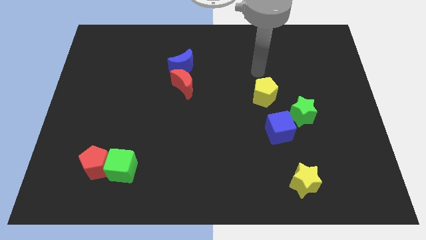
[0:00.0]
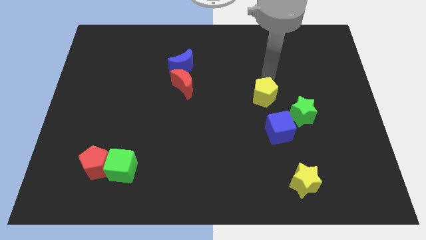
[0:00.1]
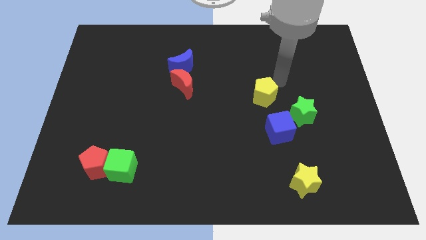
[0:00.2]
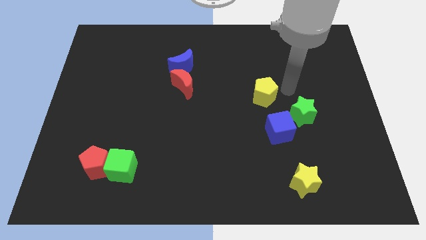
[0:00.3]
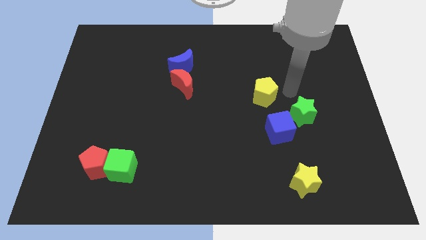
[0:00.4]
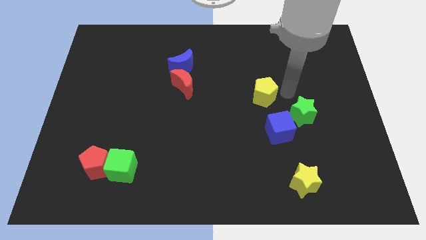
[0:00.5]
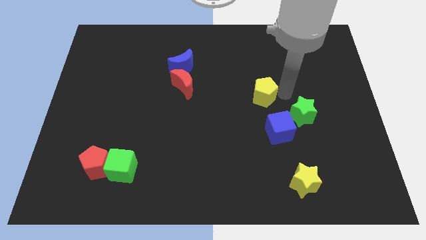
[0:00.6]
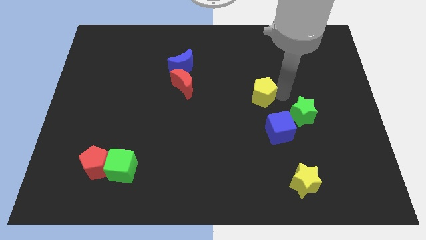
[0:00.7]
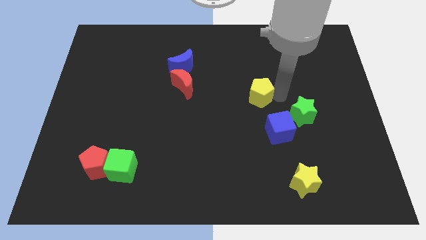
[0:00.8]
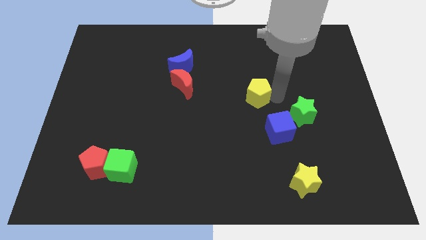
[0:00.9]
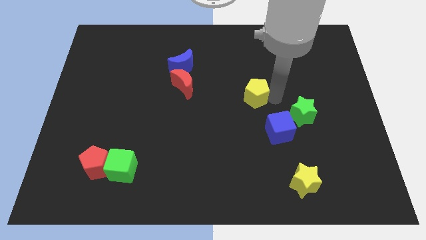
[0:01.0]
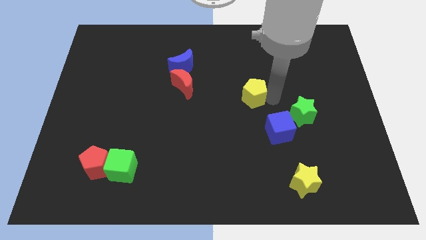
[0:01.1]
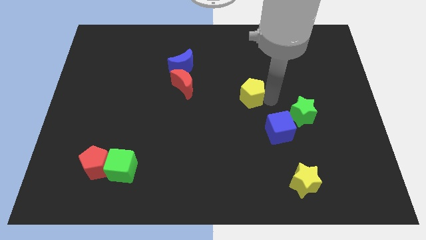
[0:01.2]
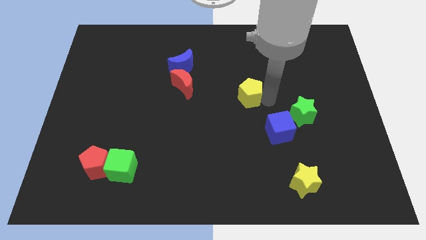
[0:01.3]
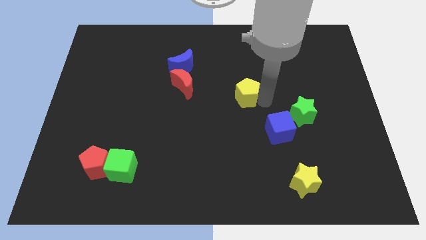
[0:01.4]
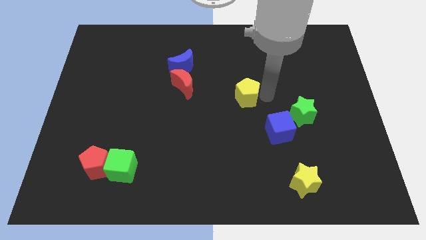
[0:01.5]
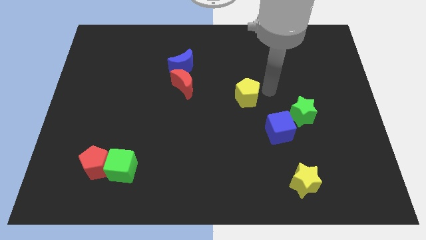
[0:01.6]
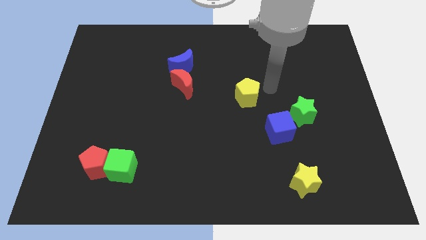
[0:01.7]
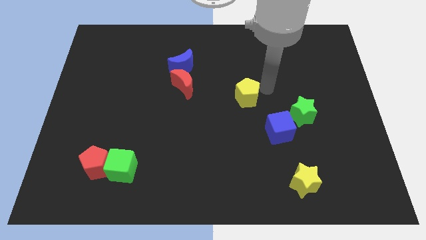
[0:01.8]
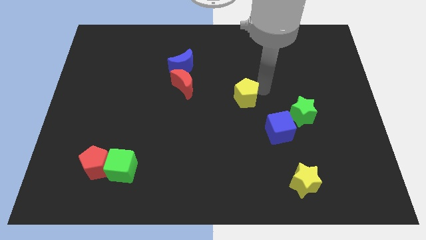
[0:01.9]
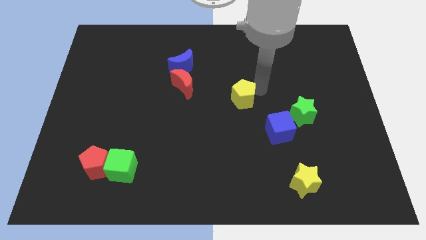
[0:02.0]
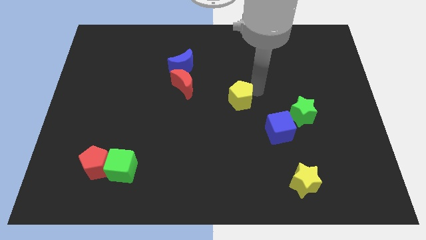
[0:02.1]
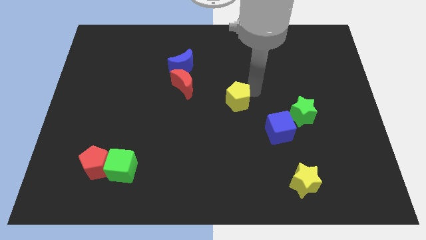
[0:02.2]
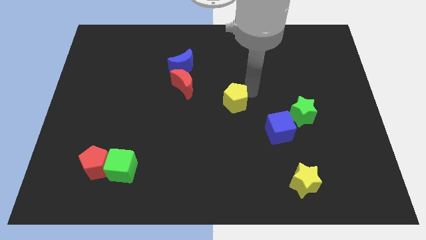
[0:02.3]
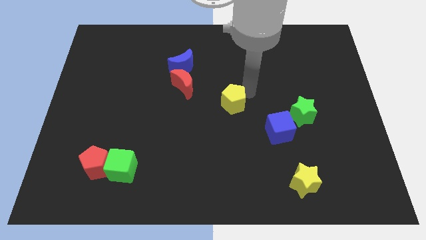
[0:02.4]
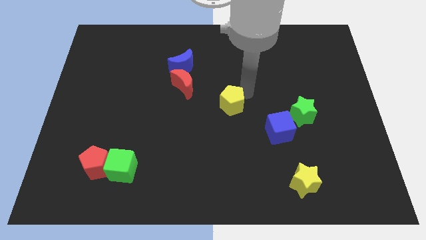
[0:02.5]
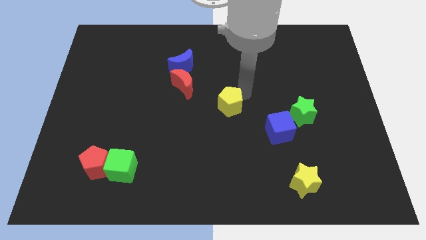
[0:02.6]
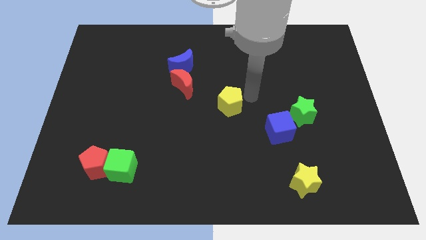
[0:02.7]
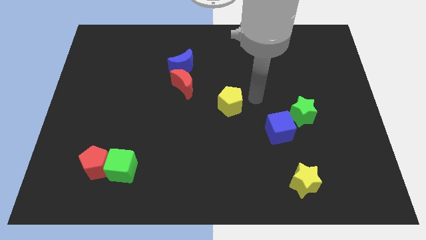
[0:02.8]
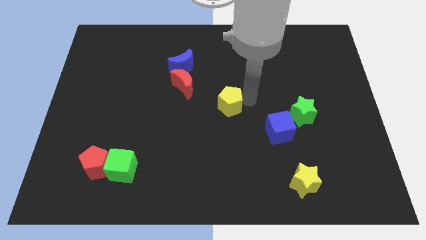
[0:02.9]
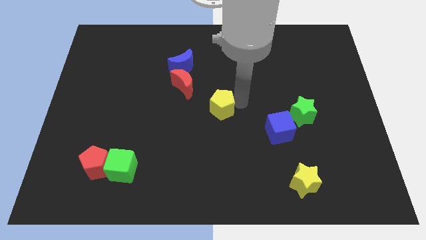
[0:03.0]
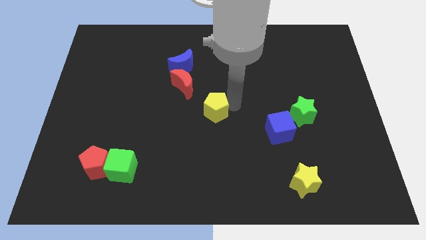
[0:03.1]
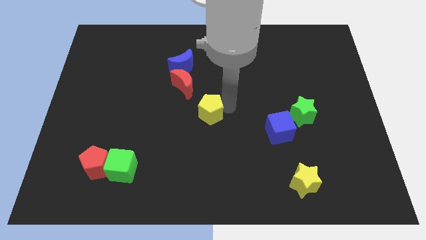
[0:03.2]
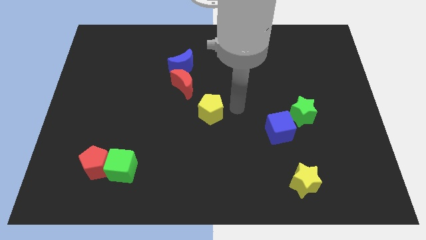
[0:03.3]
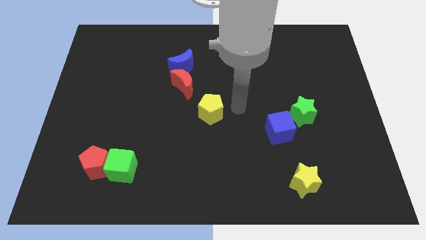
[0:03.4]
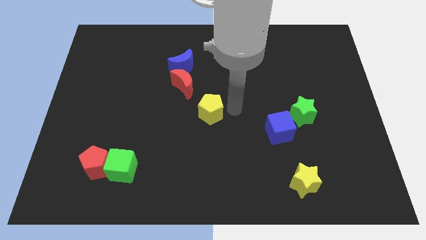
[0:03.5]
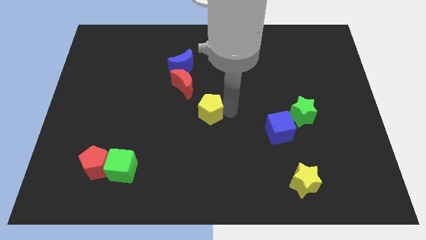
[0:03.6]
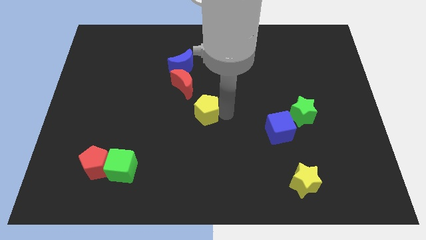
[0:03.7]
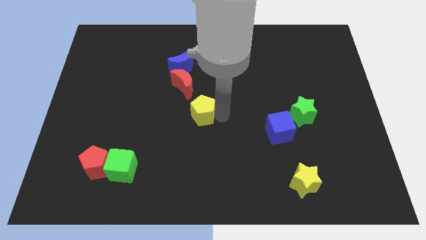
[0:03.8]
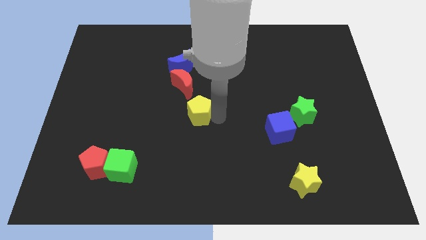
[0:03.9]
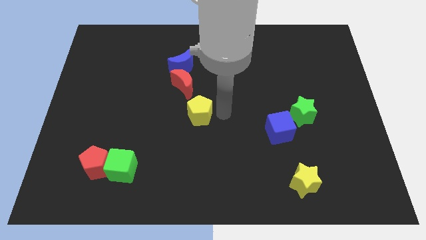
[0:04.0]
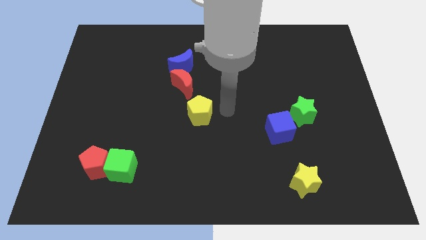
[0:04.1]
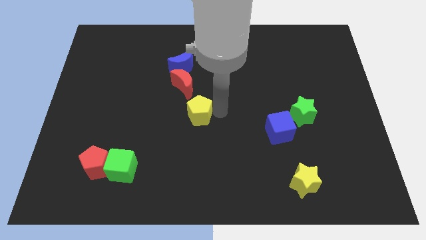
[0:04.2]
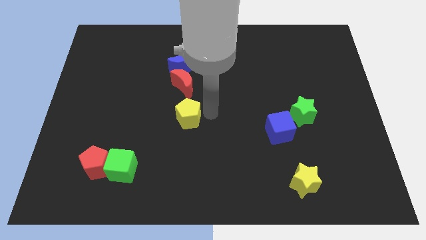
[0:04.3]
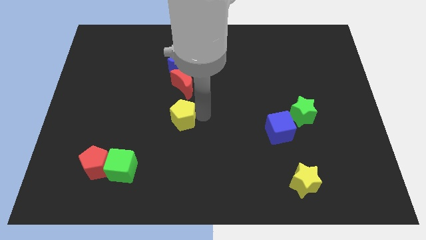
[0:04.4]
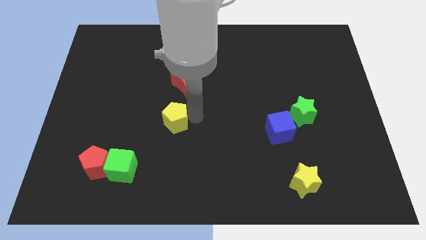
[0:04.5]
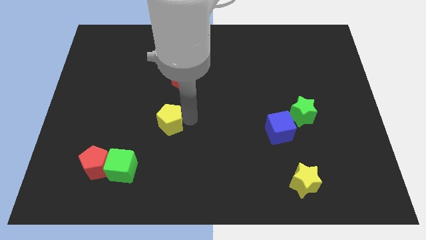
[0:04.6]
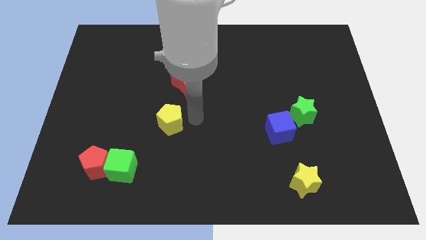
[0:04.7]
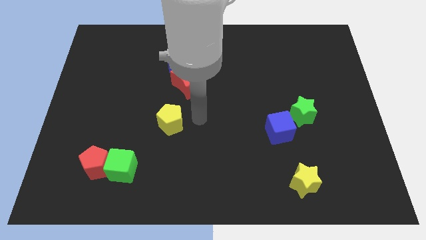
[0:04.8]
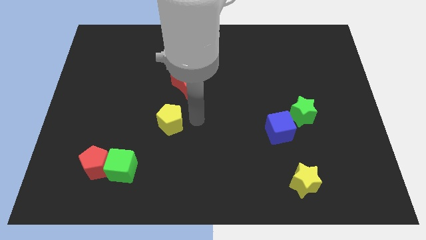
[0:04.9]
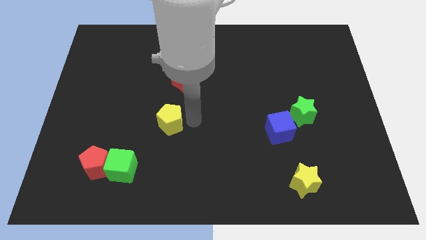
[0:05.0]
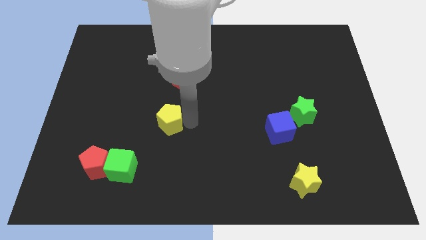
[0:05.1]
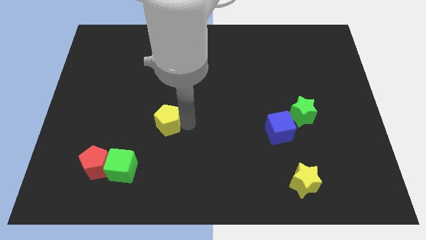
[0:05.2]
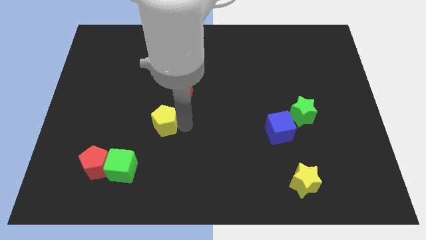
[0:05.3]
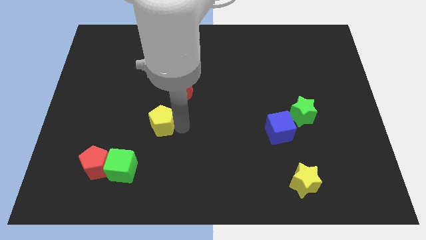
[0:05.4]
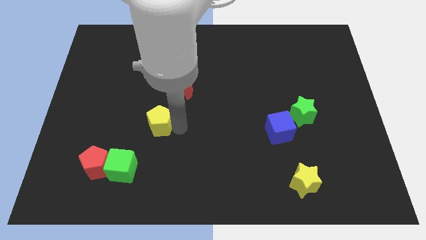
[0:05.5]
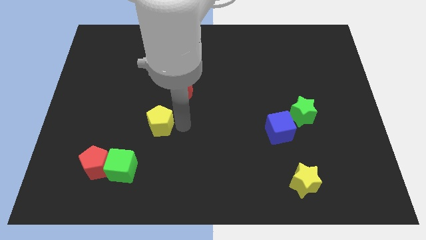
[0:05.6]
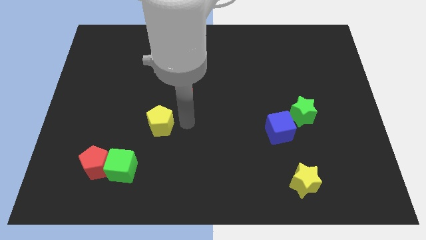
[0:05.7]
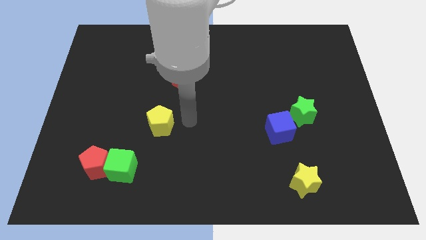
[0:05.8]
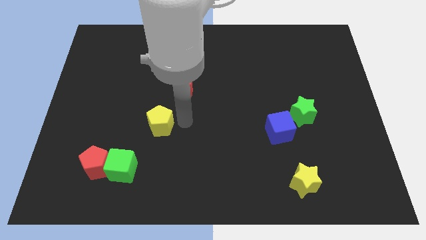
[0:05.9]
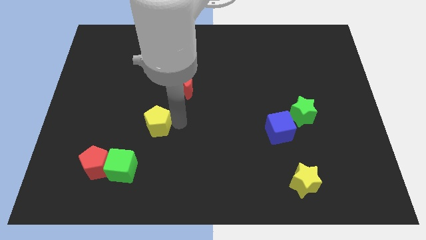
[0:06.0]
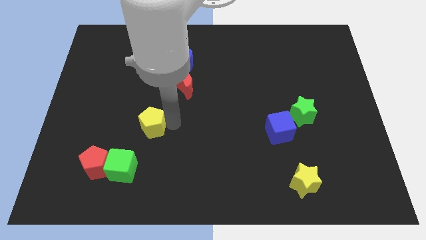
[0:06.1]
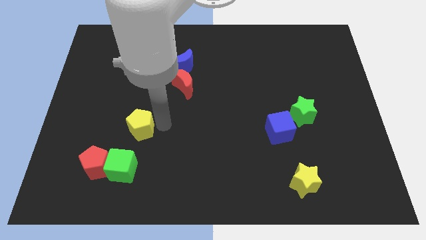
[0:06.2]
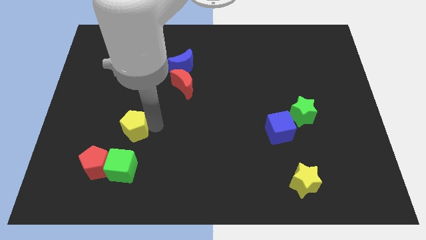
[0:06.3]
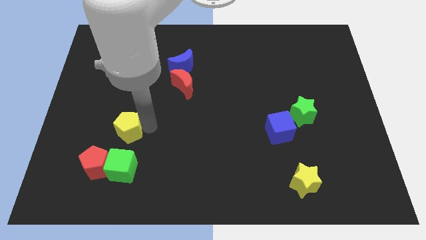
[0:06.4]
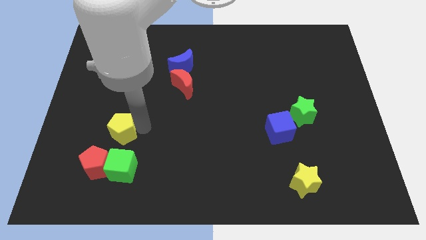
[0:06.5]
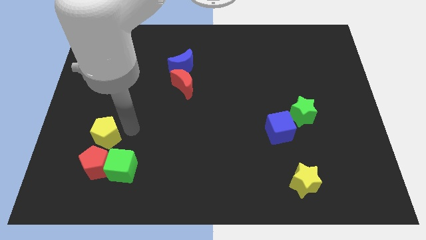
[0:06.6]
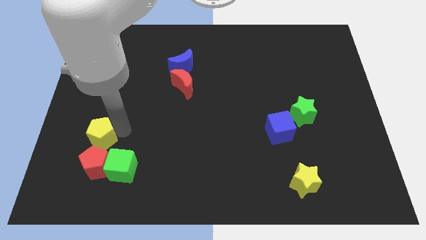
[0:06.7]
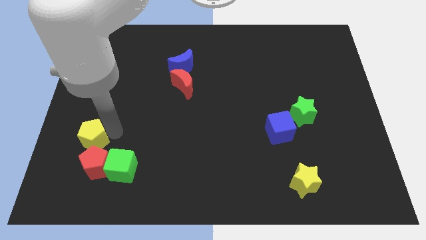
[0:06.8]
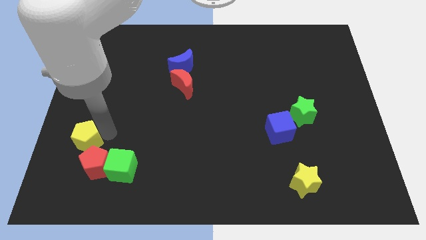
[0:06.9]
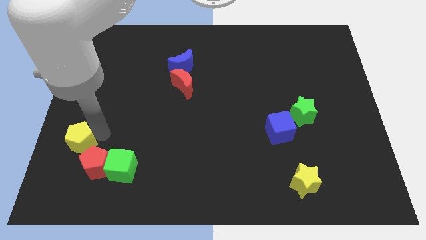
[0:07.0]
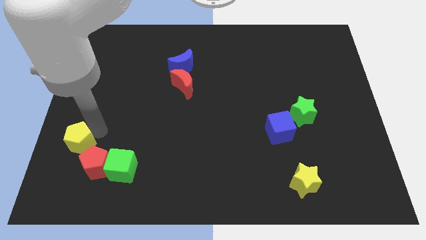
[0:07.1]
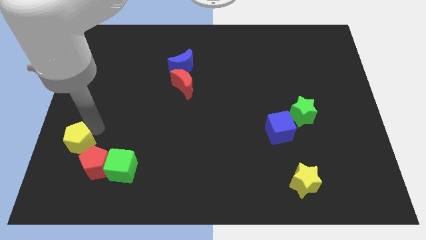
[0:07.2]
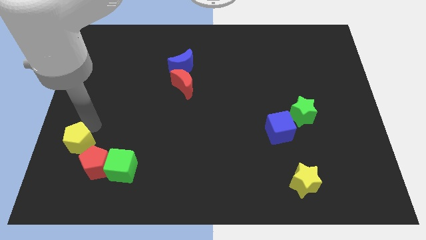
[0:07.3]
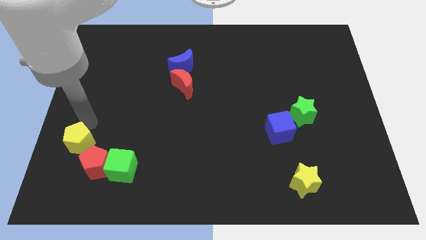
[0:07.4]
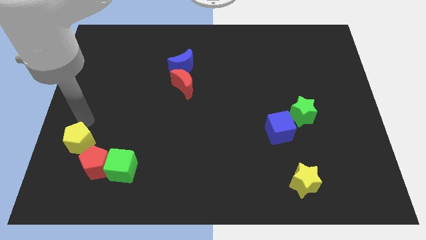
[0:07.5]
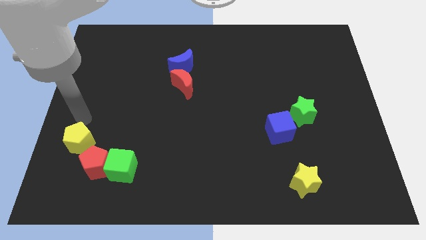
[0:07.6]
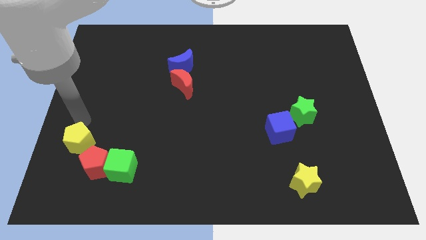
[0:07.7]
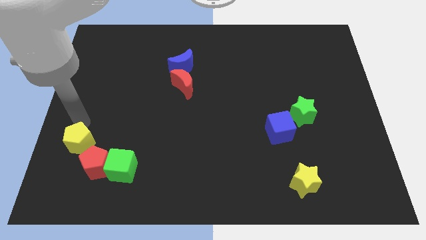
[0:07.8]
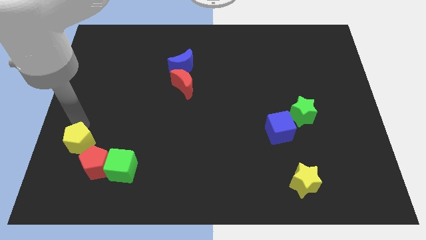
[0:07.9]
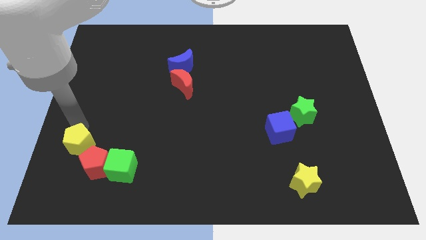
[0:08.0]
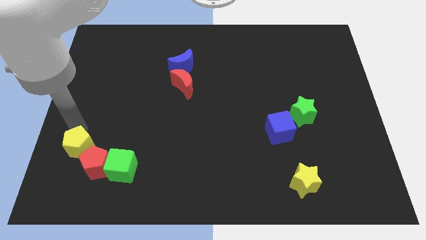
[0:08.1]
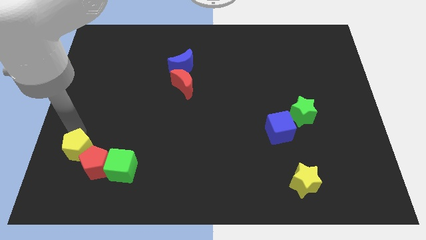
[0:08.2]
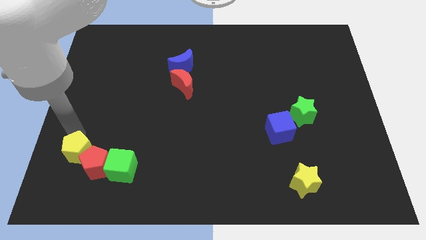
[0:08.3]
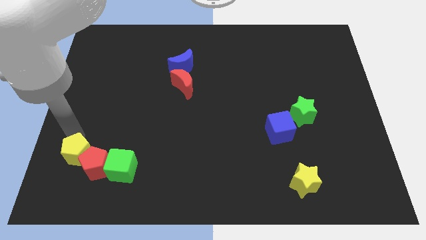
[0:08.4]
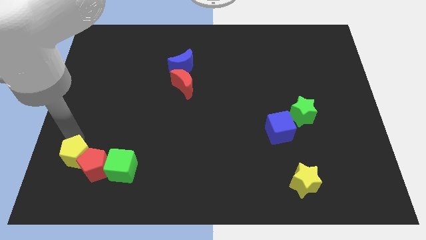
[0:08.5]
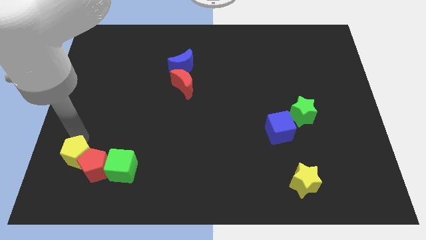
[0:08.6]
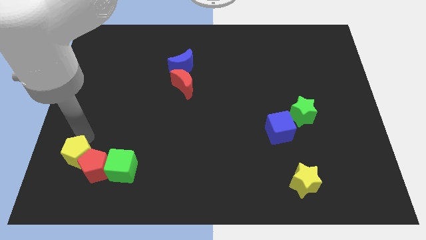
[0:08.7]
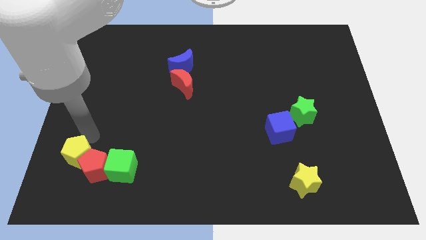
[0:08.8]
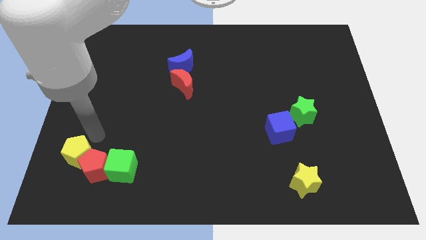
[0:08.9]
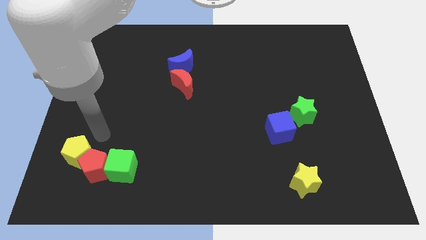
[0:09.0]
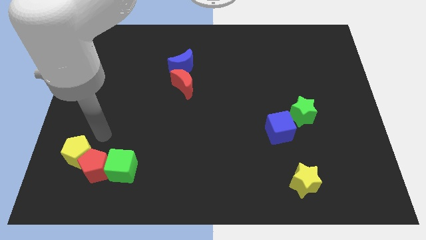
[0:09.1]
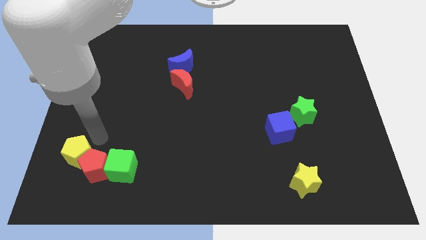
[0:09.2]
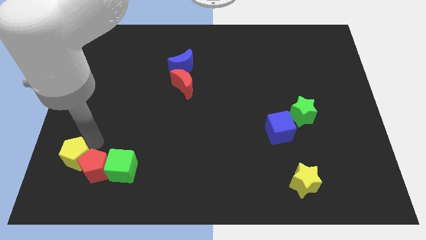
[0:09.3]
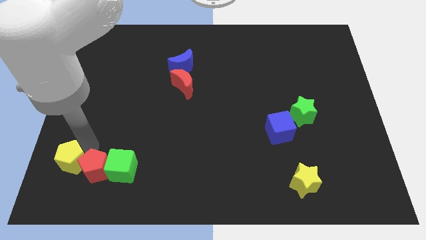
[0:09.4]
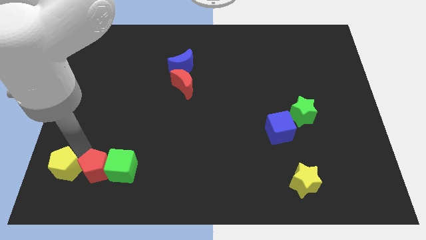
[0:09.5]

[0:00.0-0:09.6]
move the yellow pentagon to the bottom left corner
